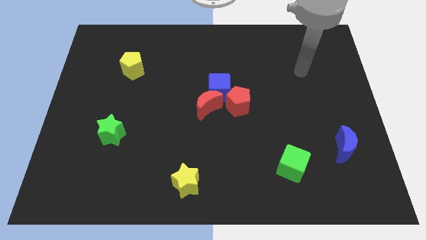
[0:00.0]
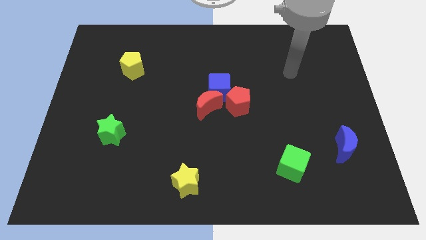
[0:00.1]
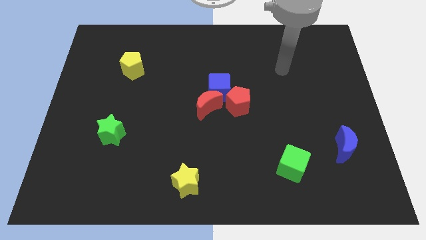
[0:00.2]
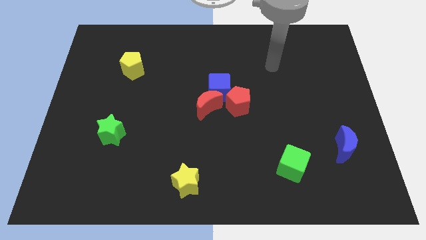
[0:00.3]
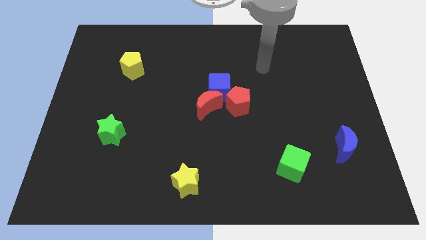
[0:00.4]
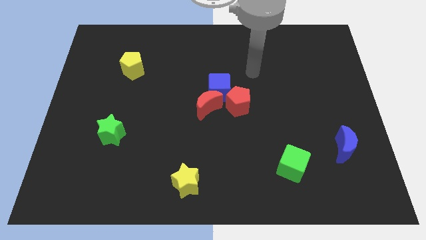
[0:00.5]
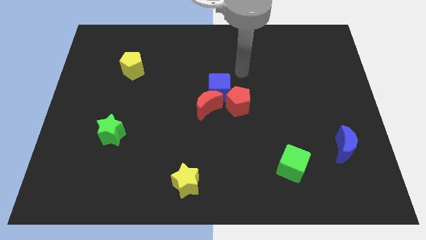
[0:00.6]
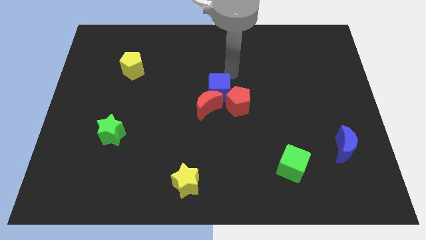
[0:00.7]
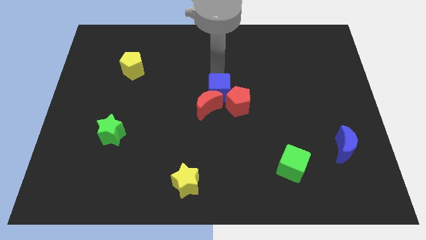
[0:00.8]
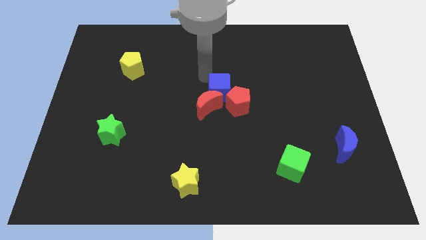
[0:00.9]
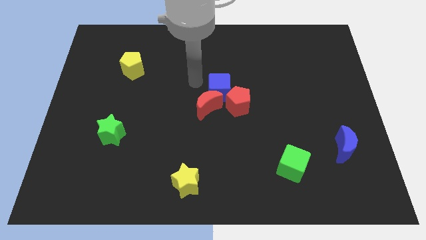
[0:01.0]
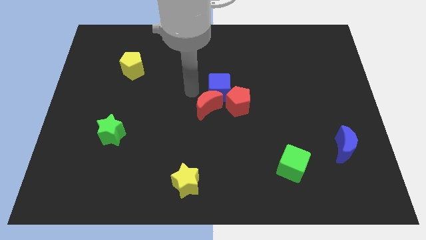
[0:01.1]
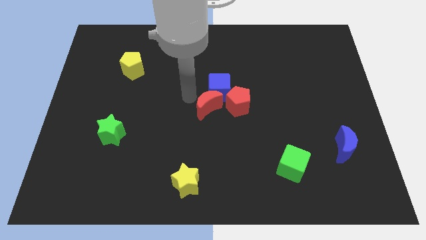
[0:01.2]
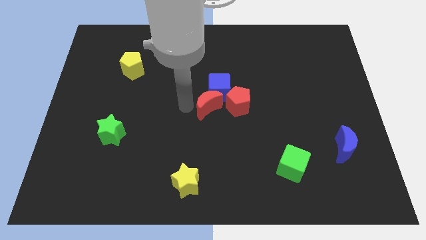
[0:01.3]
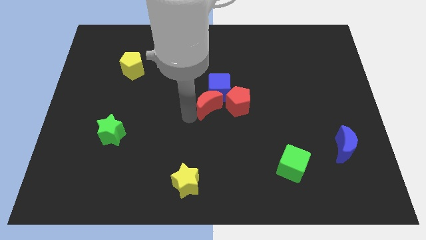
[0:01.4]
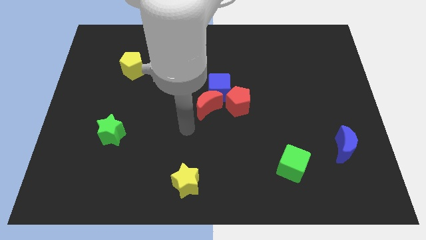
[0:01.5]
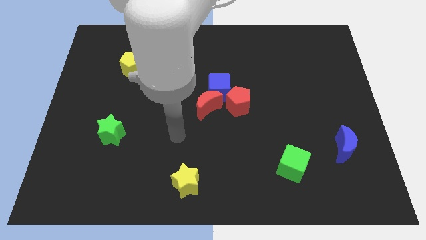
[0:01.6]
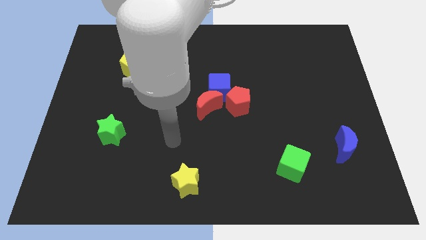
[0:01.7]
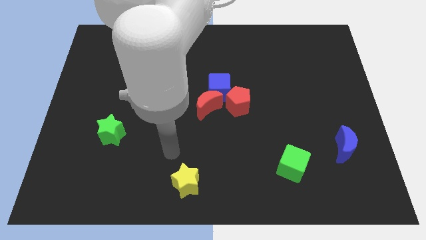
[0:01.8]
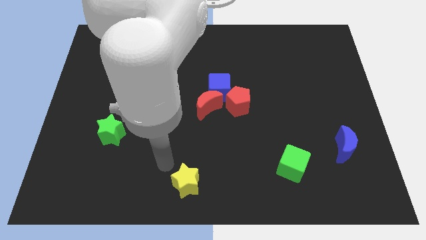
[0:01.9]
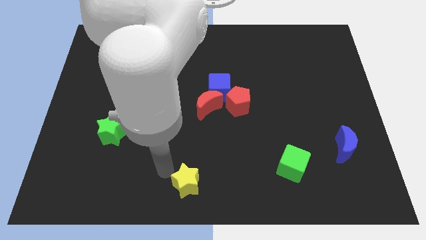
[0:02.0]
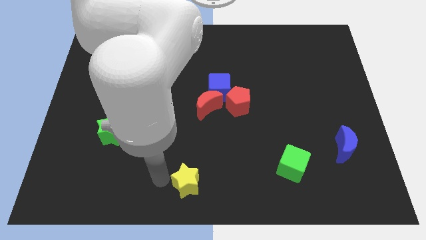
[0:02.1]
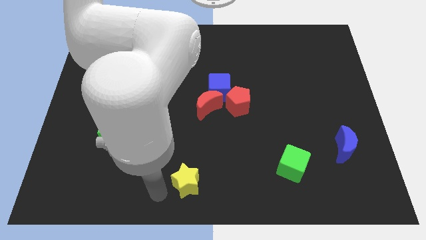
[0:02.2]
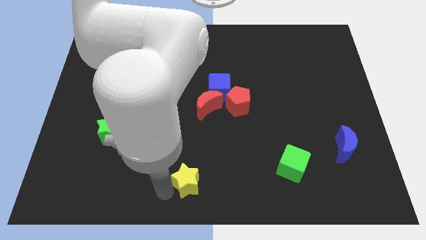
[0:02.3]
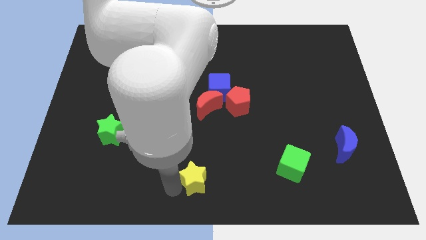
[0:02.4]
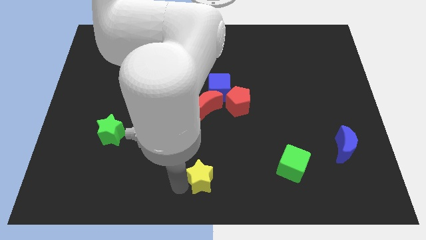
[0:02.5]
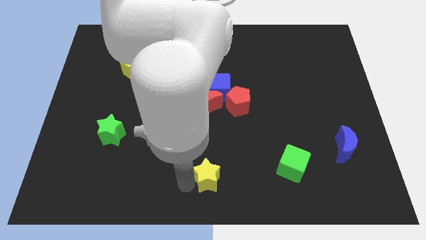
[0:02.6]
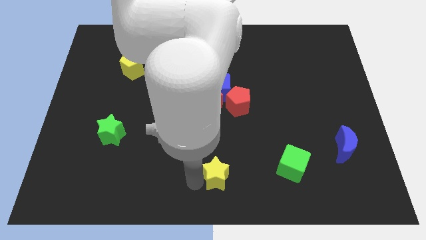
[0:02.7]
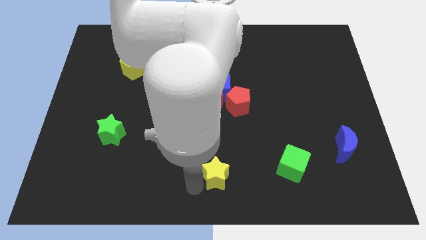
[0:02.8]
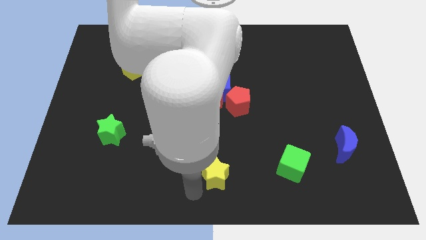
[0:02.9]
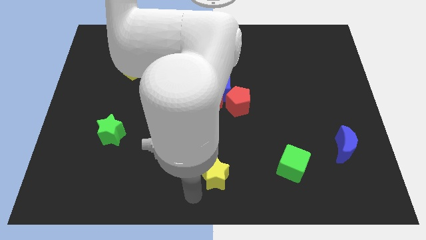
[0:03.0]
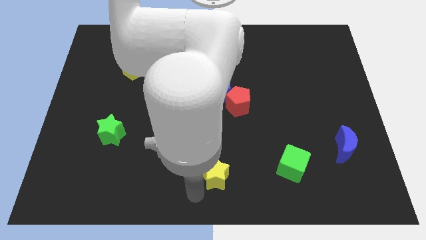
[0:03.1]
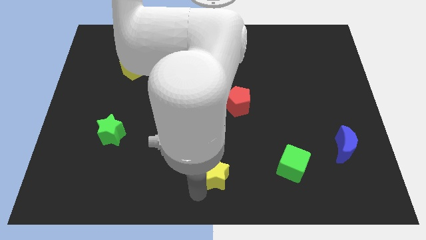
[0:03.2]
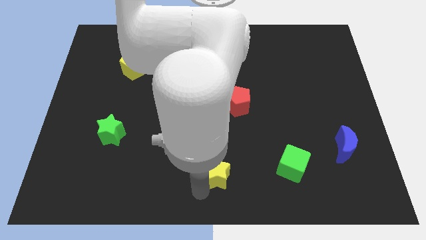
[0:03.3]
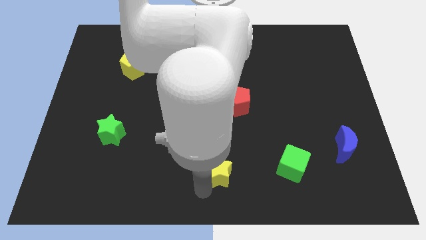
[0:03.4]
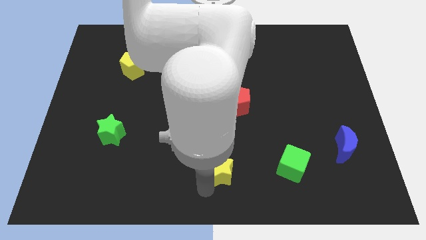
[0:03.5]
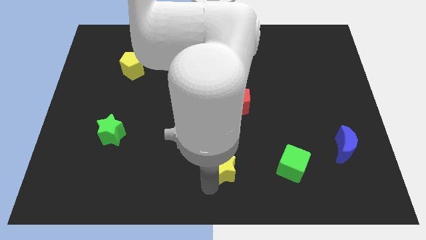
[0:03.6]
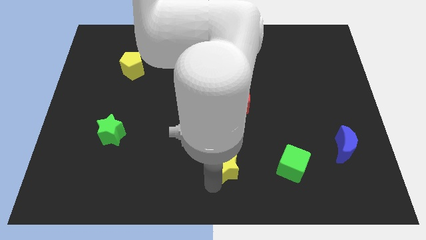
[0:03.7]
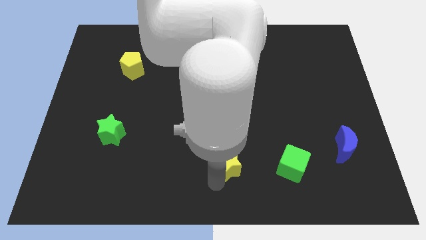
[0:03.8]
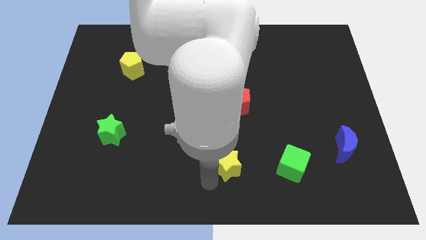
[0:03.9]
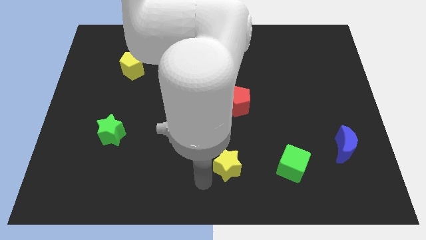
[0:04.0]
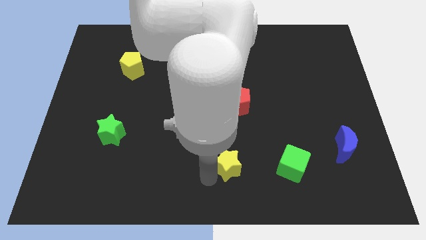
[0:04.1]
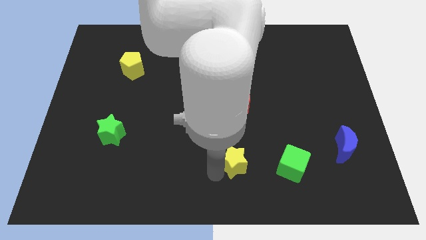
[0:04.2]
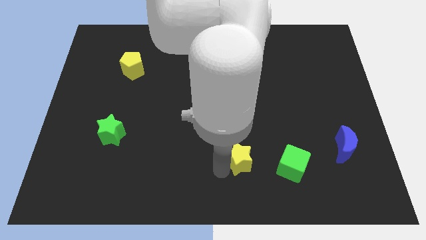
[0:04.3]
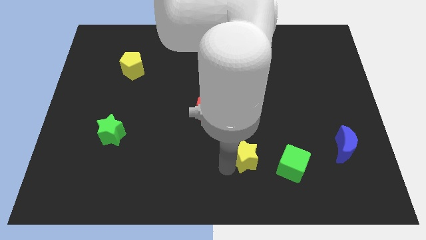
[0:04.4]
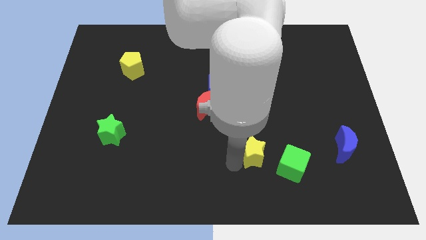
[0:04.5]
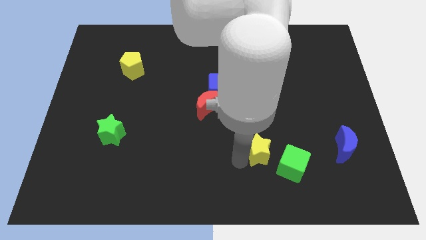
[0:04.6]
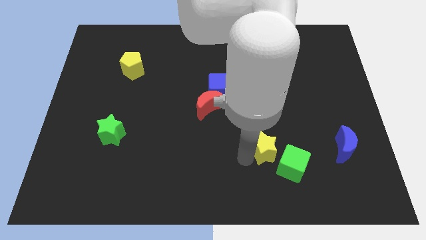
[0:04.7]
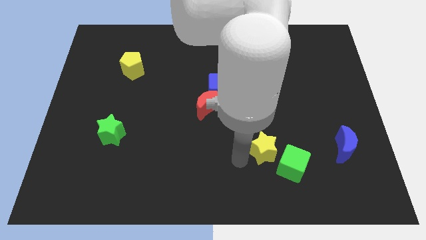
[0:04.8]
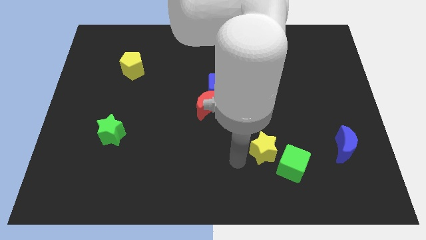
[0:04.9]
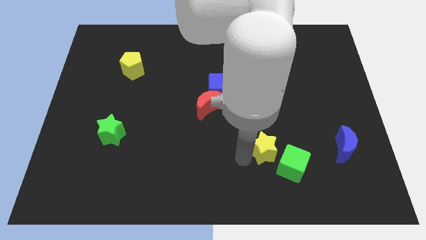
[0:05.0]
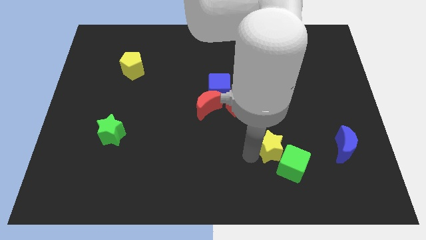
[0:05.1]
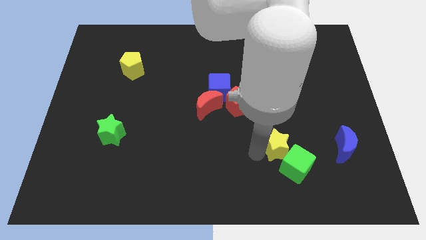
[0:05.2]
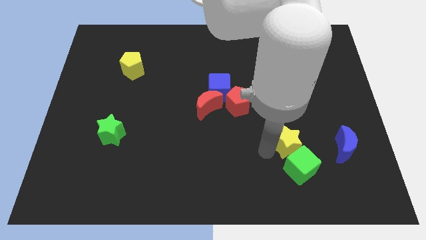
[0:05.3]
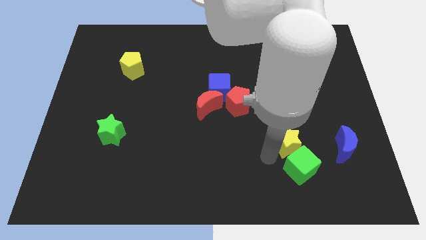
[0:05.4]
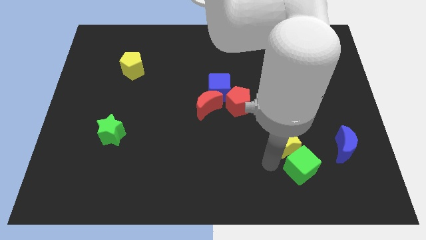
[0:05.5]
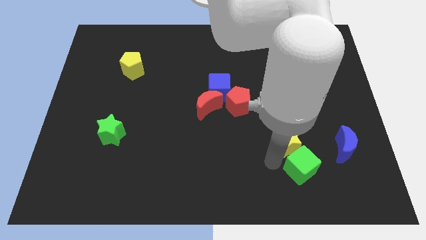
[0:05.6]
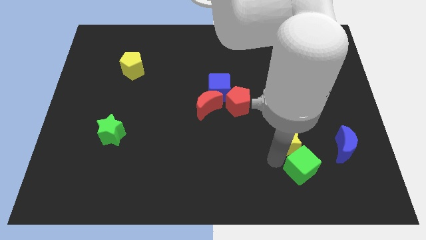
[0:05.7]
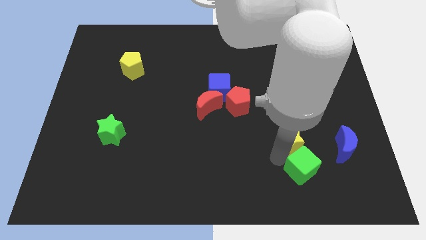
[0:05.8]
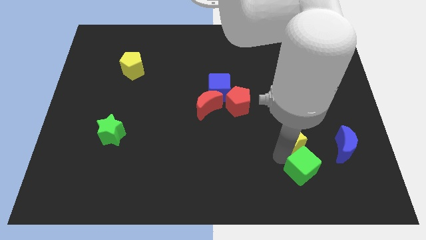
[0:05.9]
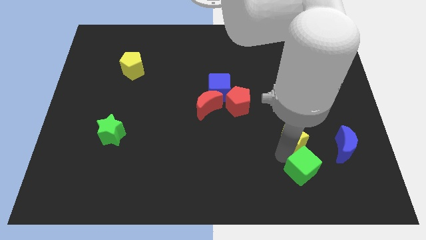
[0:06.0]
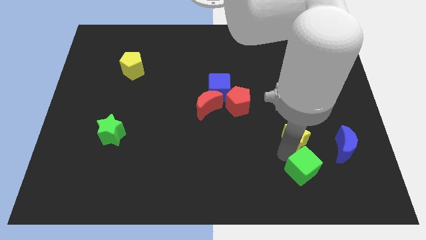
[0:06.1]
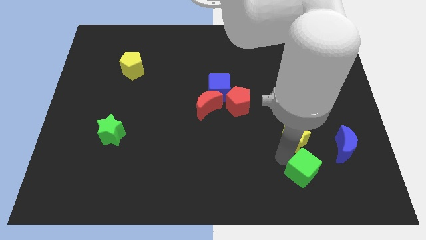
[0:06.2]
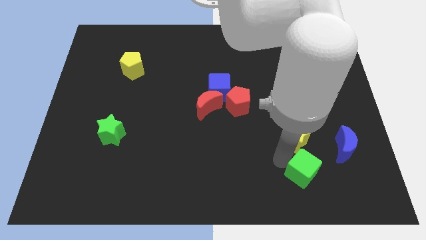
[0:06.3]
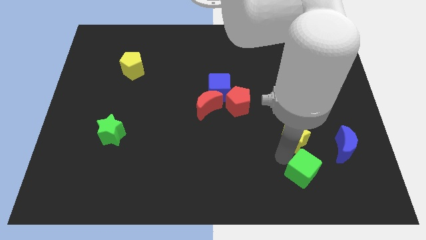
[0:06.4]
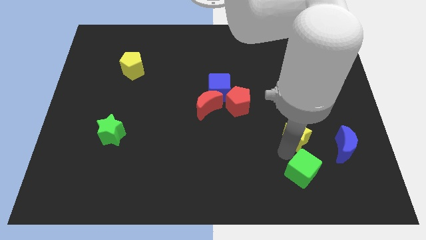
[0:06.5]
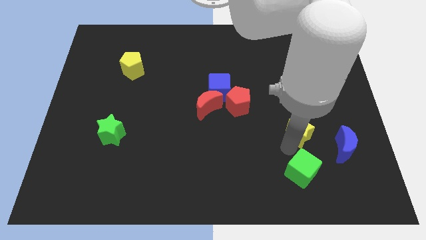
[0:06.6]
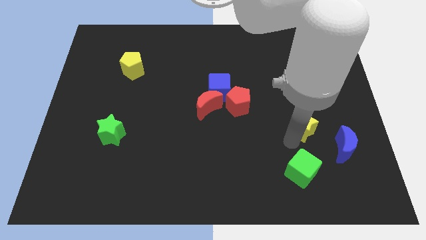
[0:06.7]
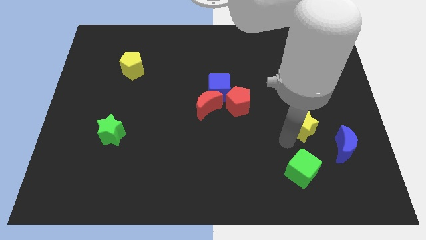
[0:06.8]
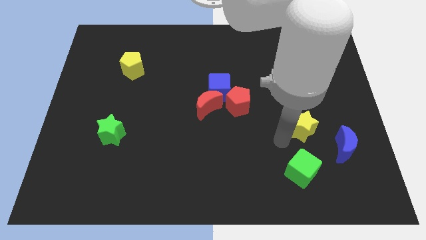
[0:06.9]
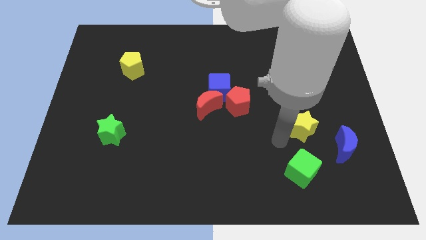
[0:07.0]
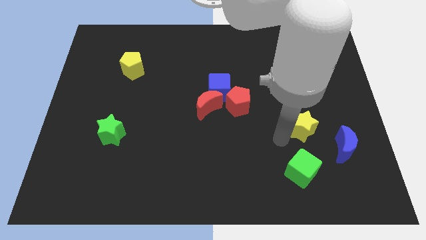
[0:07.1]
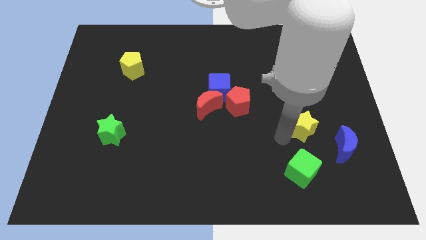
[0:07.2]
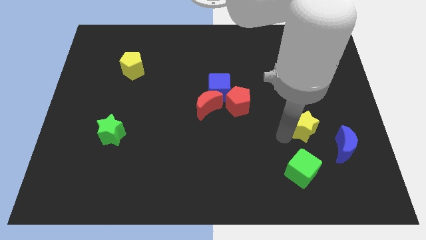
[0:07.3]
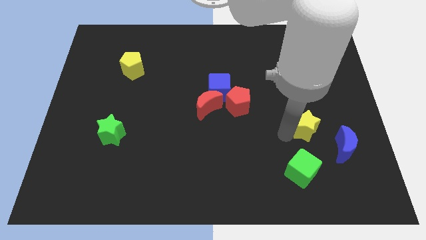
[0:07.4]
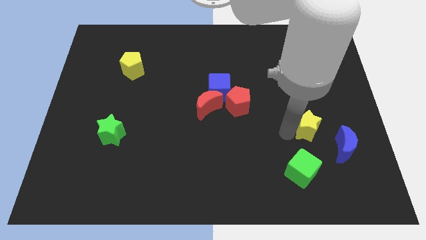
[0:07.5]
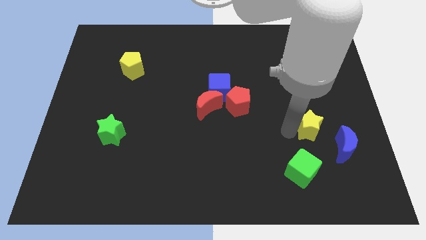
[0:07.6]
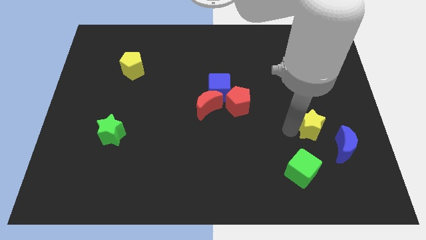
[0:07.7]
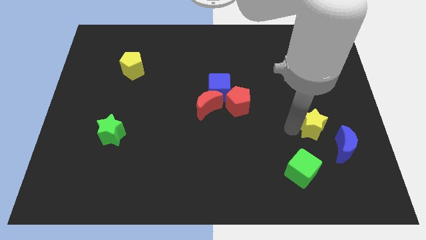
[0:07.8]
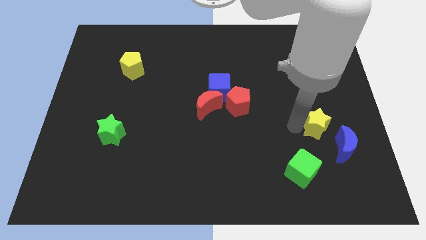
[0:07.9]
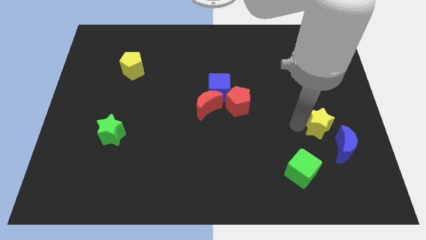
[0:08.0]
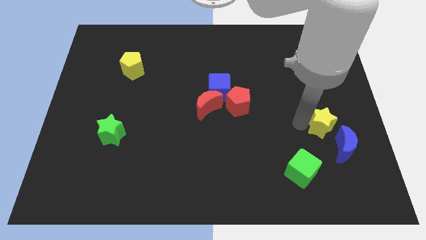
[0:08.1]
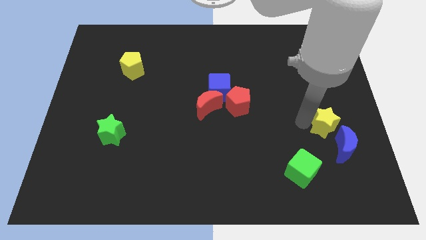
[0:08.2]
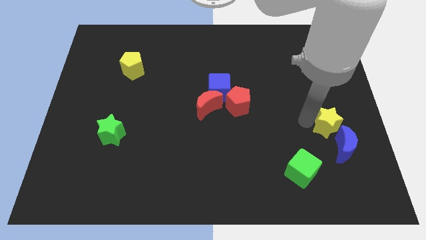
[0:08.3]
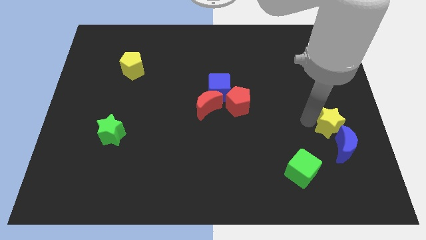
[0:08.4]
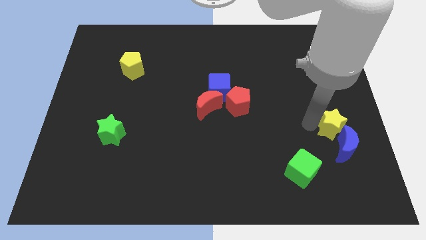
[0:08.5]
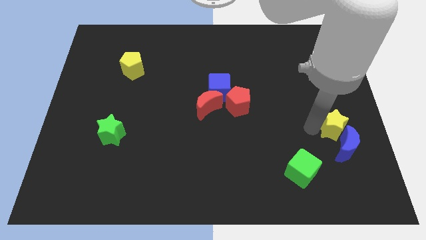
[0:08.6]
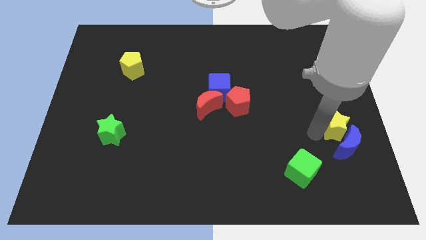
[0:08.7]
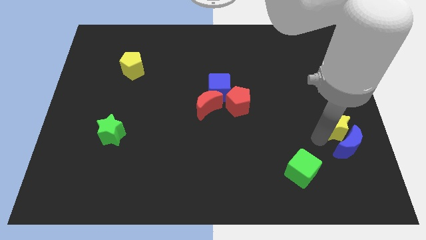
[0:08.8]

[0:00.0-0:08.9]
put the yellow star to the right side of the board
